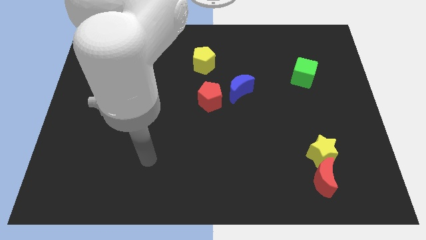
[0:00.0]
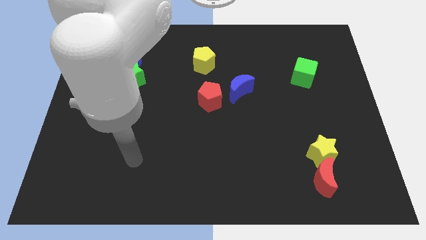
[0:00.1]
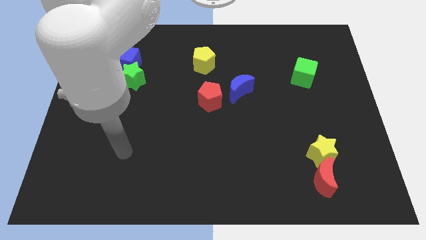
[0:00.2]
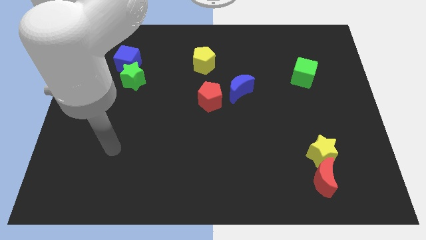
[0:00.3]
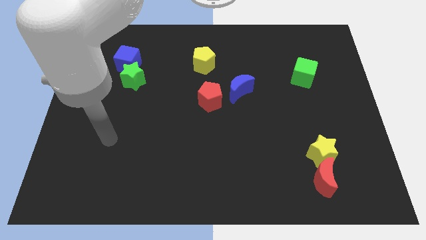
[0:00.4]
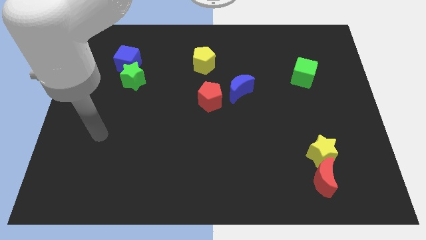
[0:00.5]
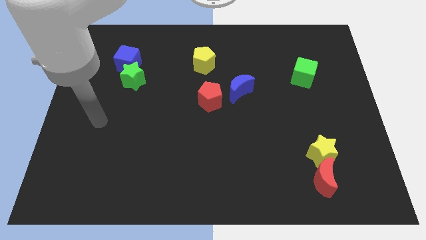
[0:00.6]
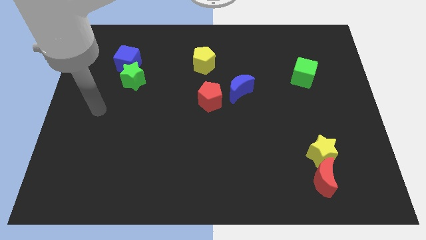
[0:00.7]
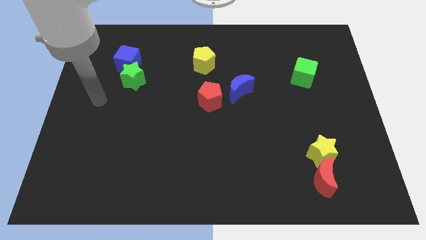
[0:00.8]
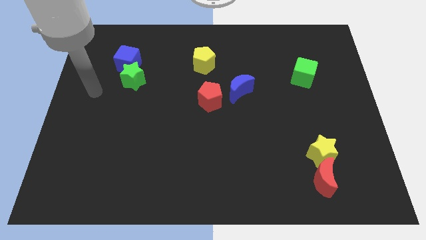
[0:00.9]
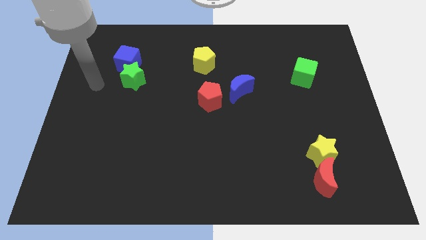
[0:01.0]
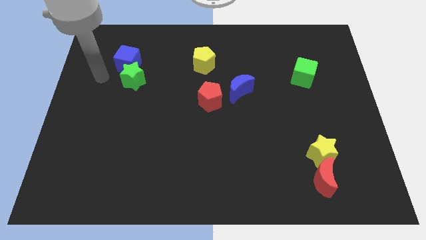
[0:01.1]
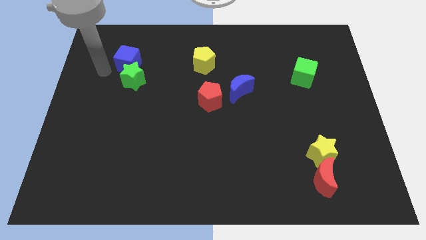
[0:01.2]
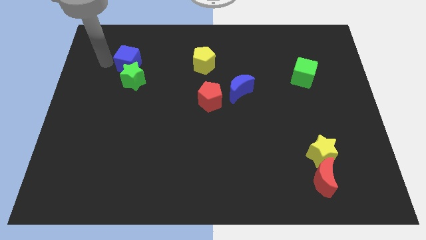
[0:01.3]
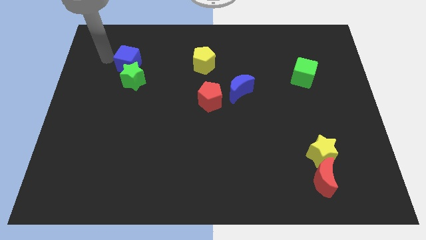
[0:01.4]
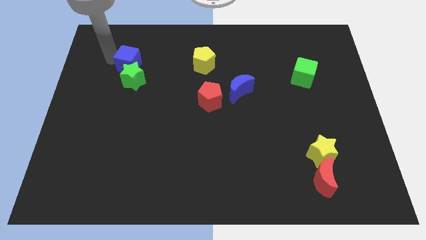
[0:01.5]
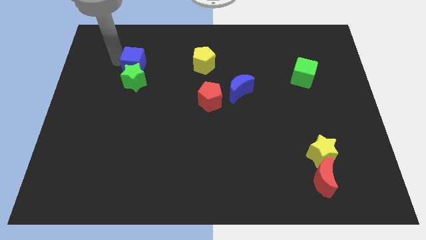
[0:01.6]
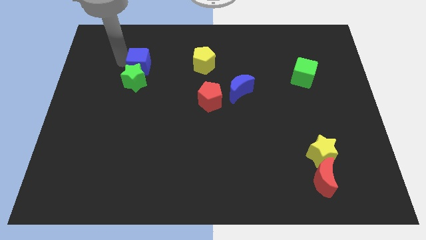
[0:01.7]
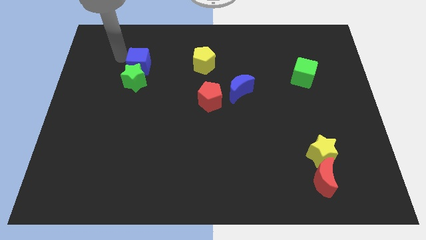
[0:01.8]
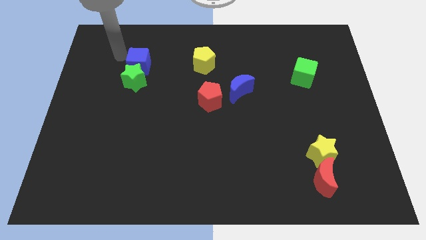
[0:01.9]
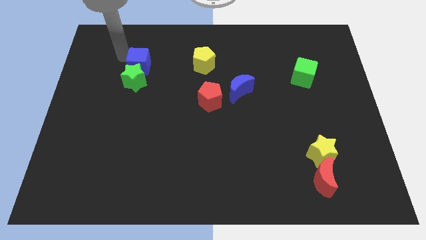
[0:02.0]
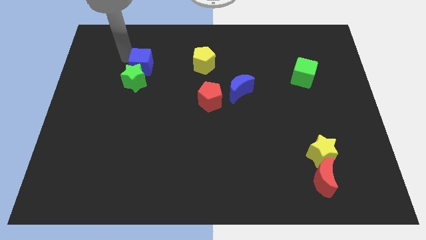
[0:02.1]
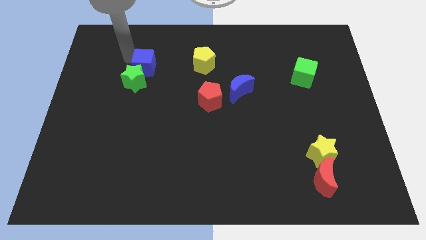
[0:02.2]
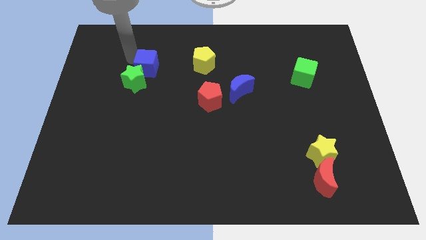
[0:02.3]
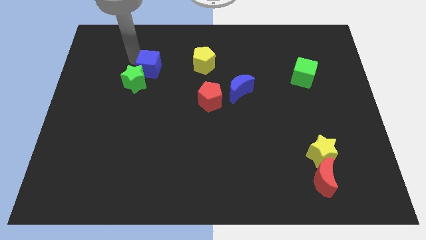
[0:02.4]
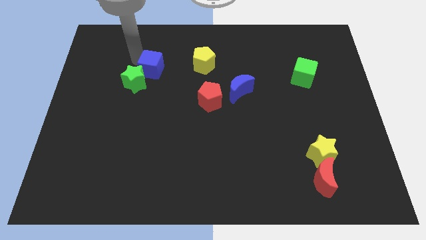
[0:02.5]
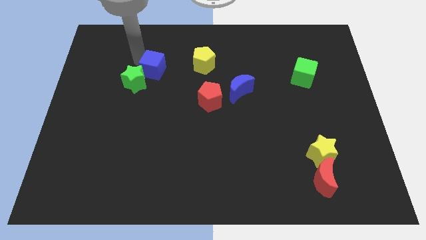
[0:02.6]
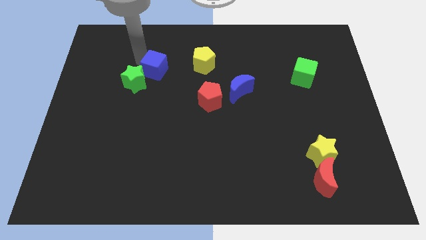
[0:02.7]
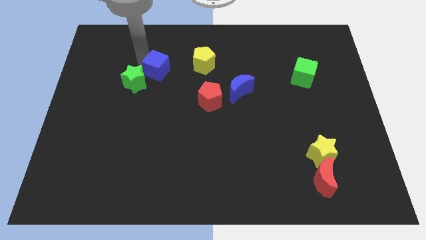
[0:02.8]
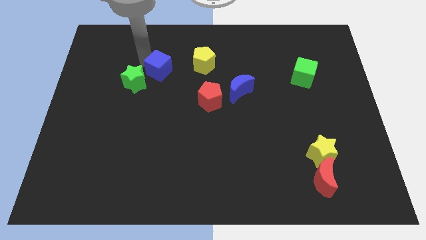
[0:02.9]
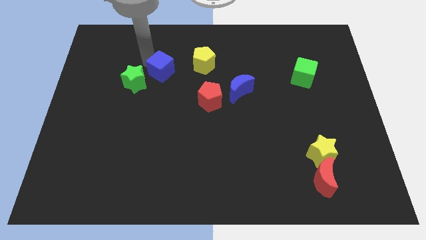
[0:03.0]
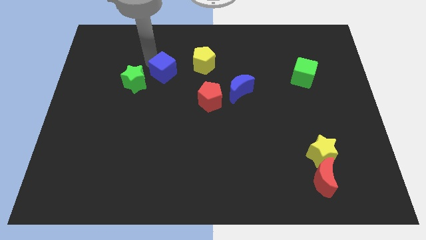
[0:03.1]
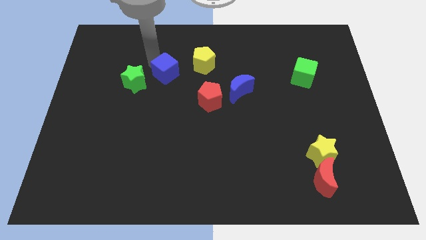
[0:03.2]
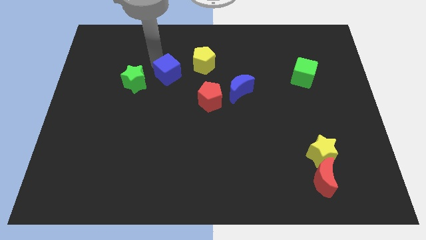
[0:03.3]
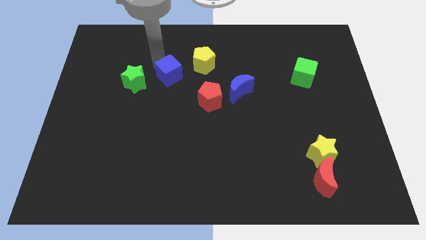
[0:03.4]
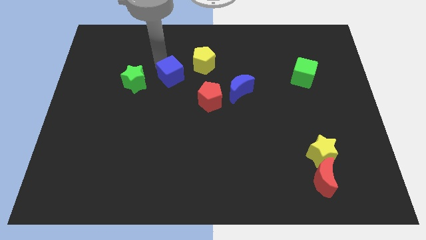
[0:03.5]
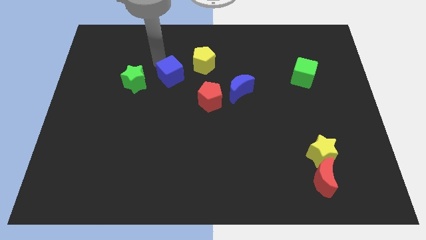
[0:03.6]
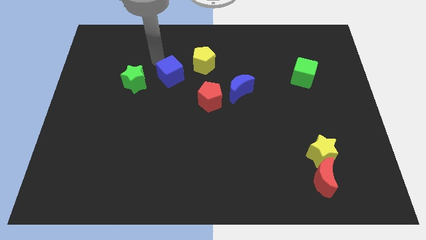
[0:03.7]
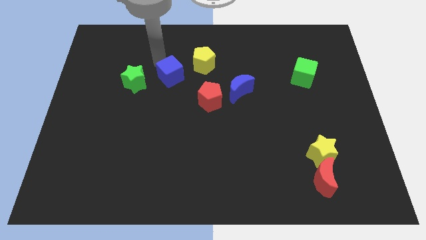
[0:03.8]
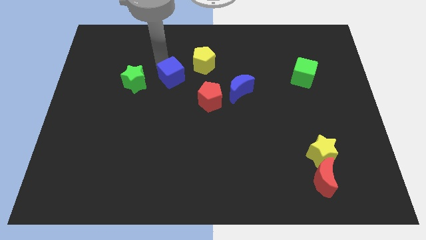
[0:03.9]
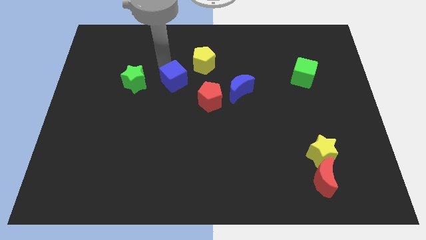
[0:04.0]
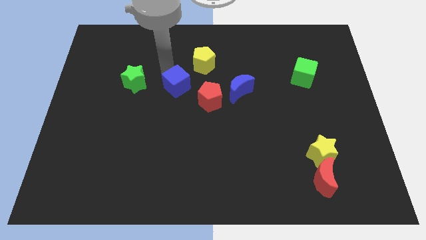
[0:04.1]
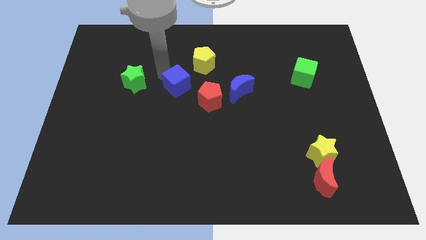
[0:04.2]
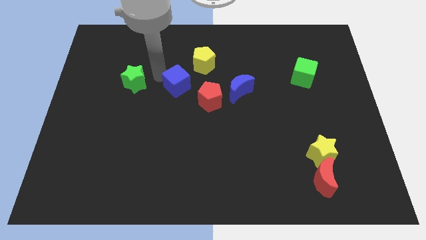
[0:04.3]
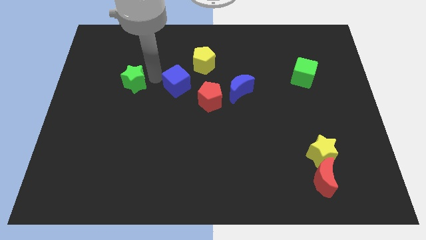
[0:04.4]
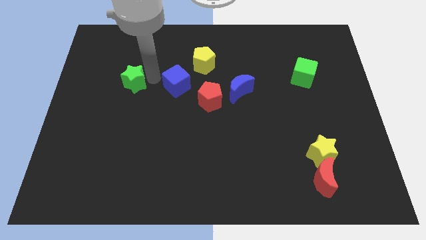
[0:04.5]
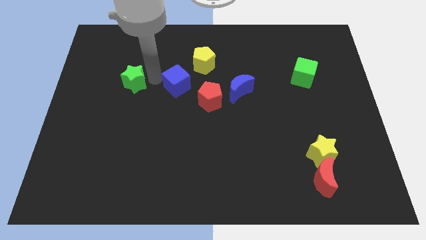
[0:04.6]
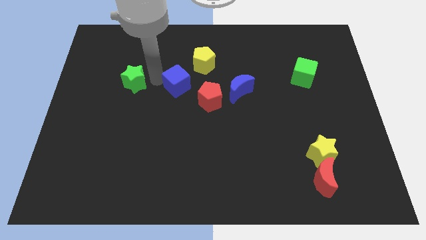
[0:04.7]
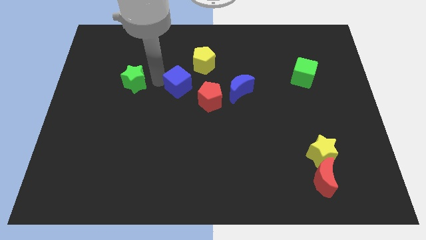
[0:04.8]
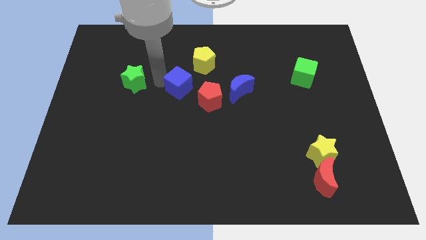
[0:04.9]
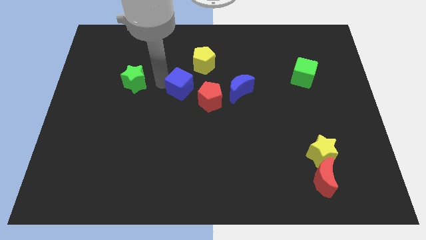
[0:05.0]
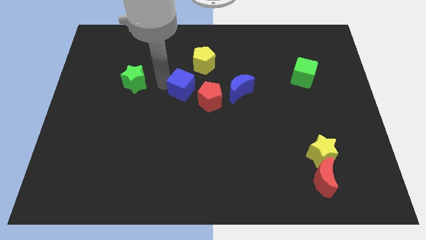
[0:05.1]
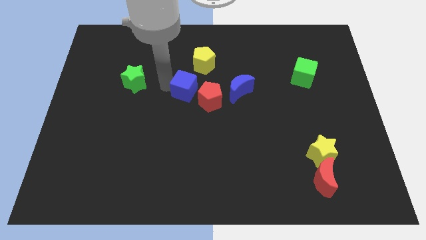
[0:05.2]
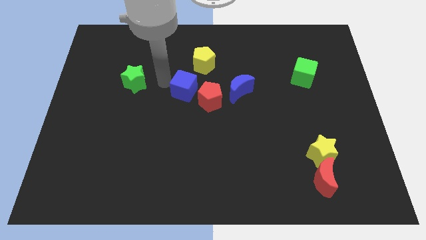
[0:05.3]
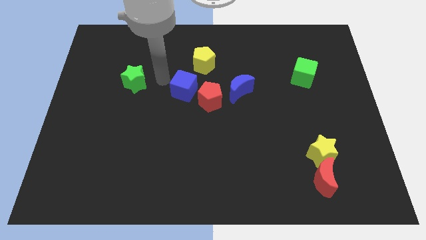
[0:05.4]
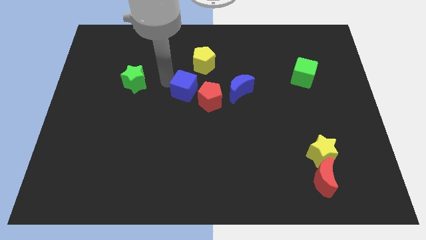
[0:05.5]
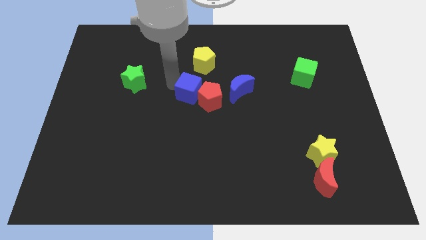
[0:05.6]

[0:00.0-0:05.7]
slide the blue cube towards the red pentagon

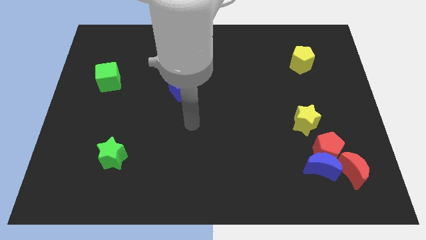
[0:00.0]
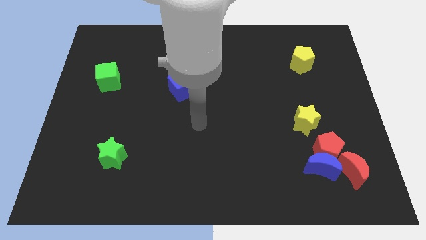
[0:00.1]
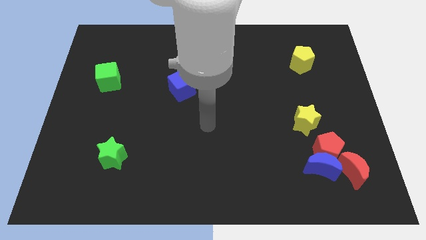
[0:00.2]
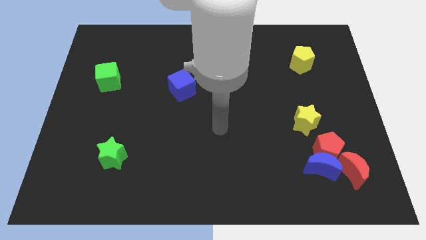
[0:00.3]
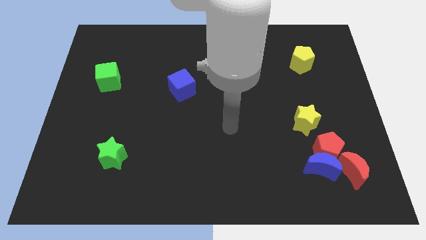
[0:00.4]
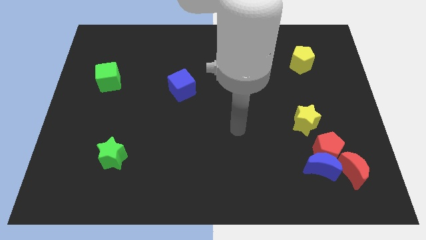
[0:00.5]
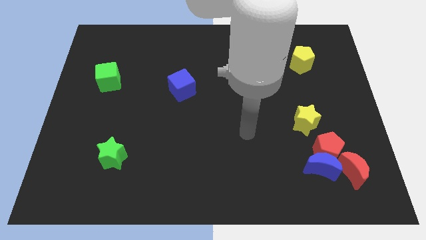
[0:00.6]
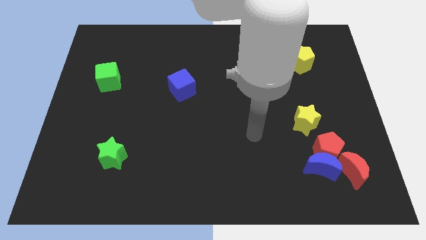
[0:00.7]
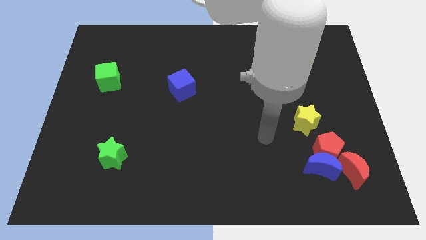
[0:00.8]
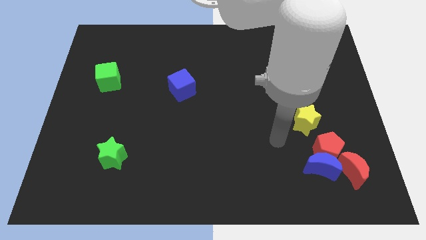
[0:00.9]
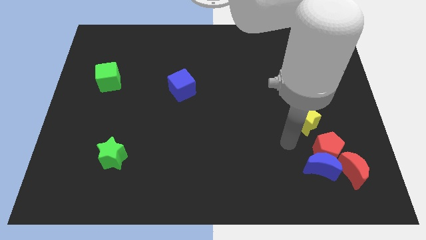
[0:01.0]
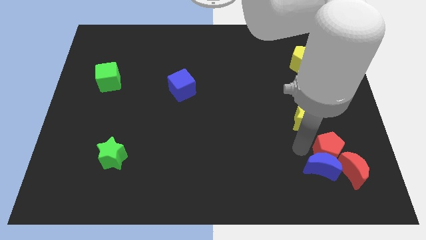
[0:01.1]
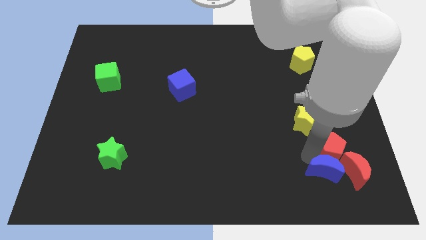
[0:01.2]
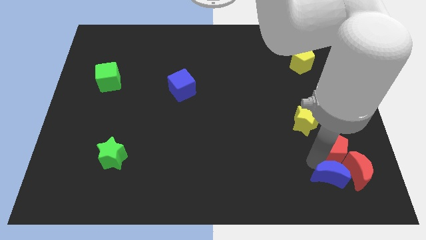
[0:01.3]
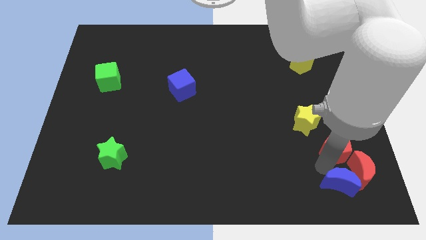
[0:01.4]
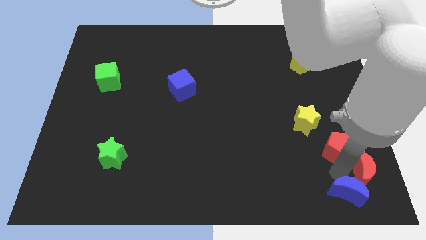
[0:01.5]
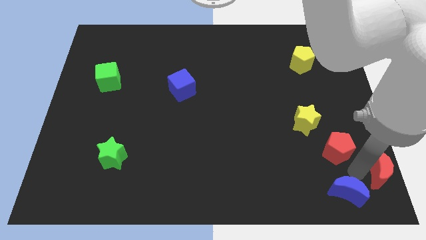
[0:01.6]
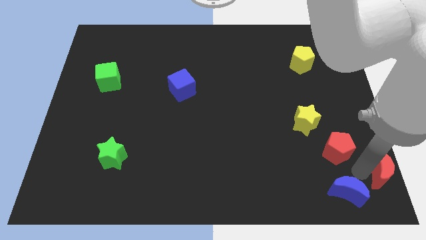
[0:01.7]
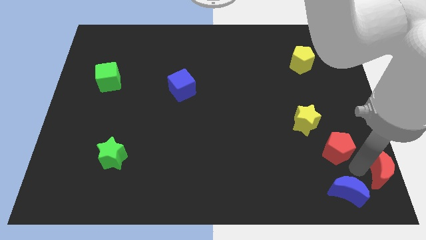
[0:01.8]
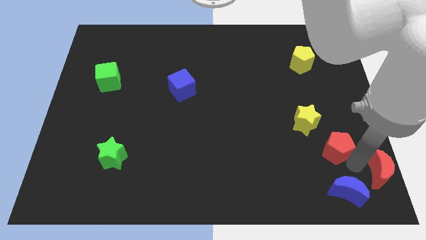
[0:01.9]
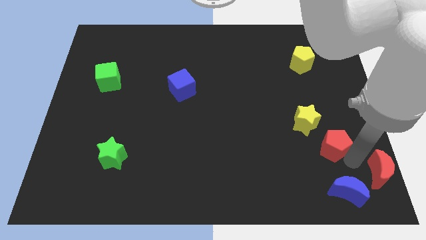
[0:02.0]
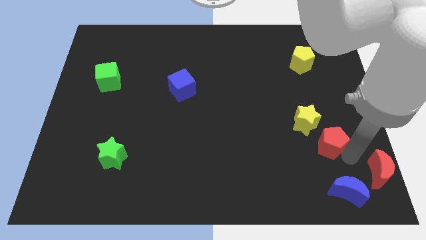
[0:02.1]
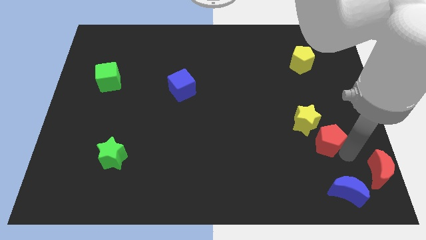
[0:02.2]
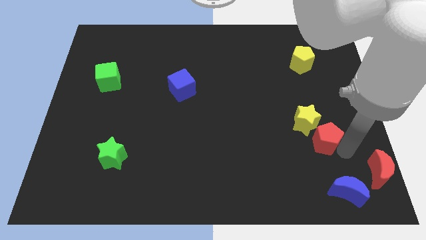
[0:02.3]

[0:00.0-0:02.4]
push the red pentagon to the yellow star
